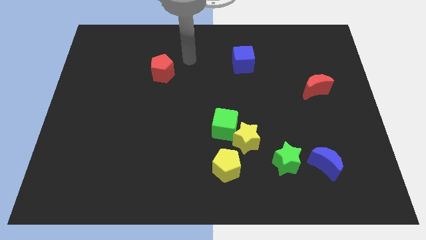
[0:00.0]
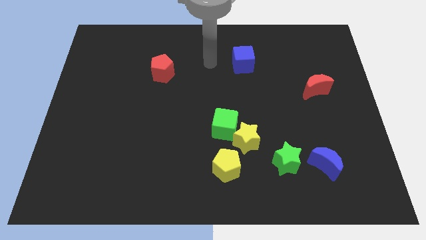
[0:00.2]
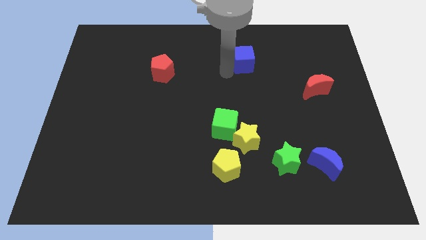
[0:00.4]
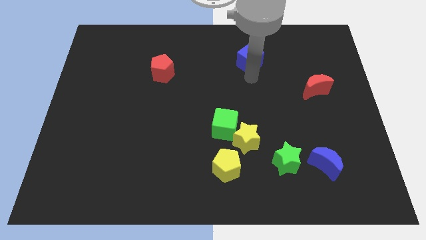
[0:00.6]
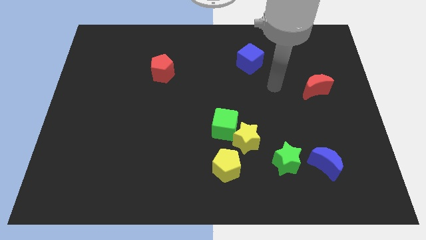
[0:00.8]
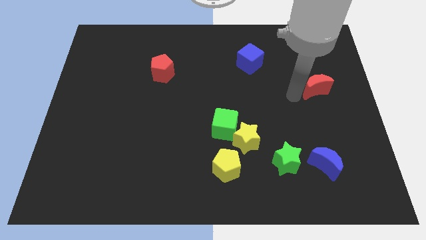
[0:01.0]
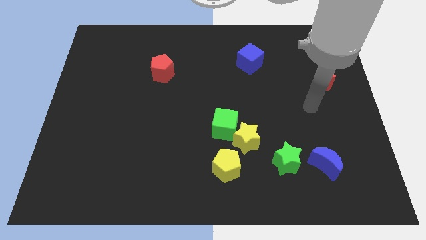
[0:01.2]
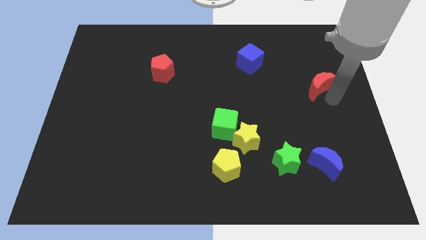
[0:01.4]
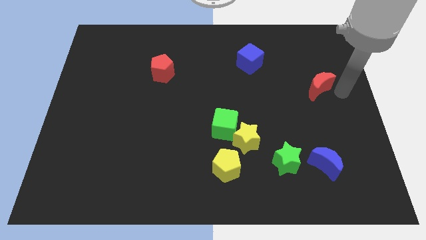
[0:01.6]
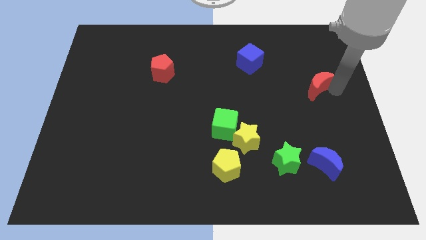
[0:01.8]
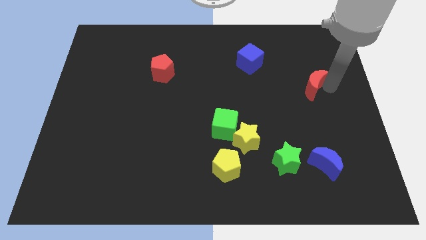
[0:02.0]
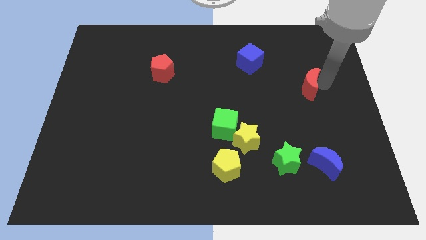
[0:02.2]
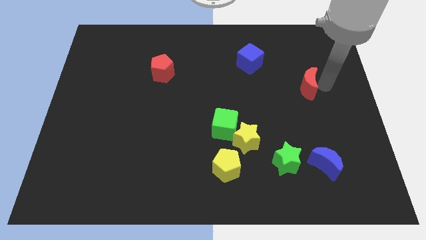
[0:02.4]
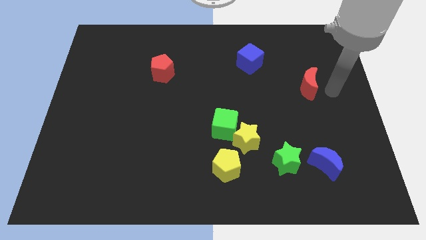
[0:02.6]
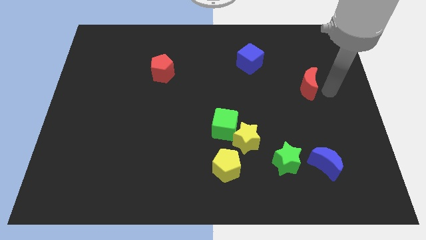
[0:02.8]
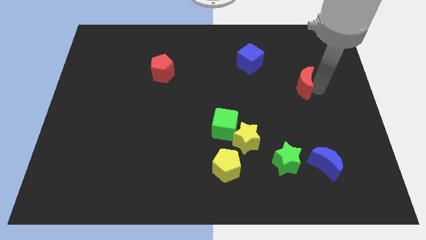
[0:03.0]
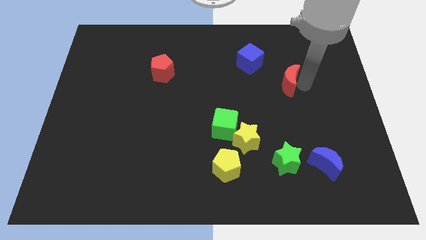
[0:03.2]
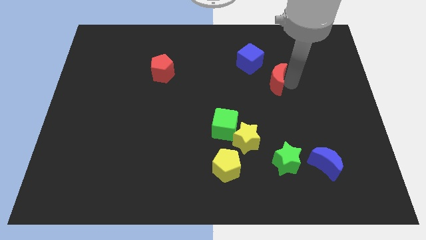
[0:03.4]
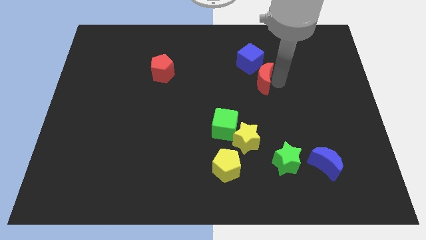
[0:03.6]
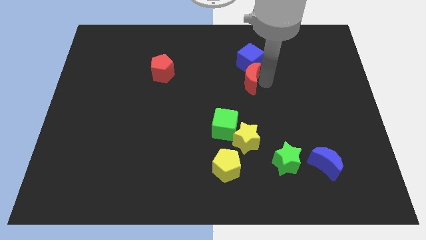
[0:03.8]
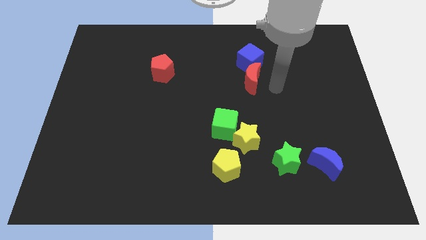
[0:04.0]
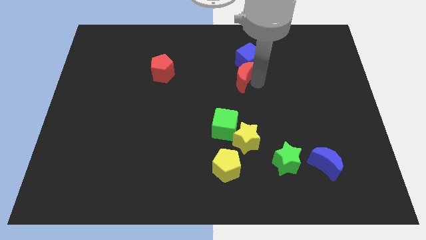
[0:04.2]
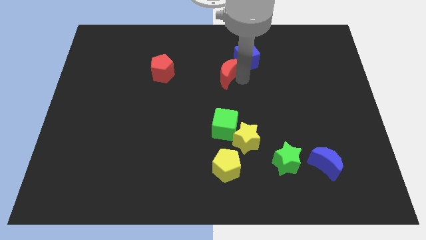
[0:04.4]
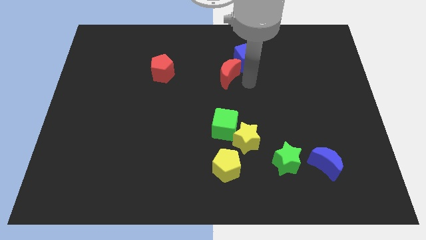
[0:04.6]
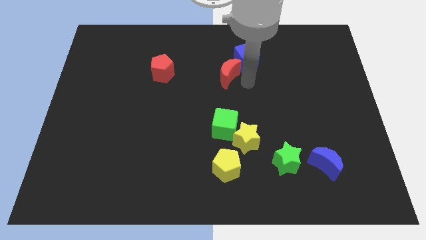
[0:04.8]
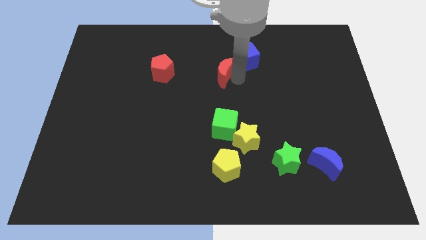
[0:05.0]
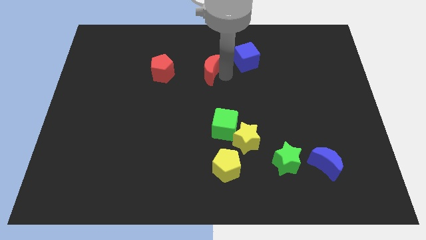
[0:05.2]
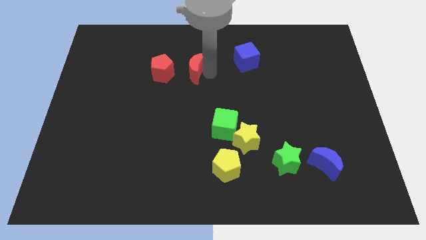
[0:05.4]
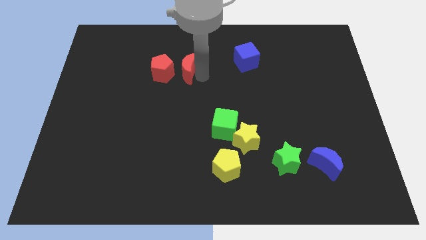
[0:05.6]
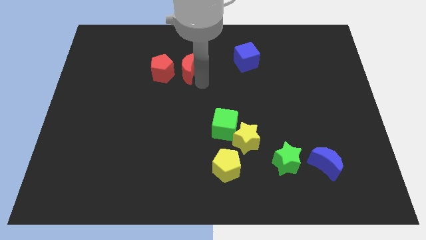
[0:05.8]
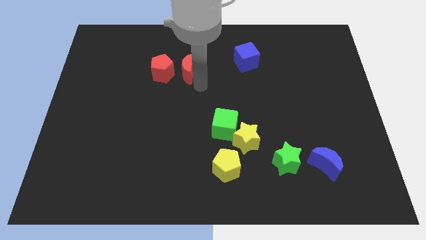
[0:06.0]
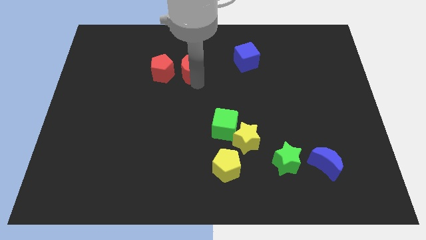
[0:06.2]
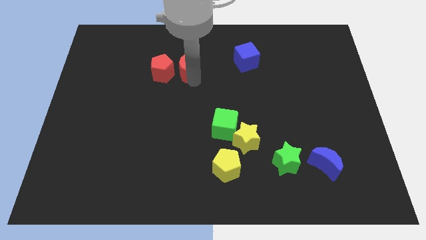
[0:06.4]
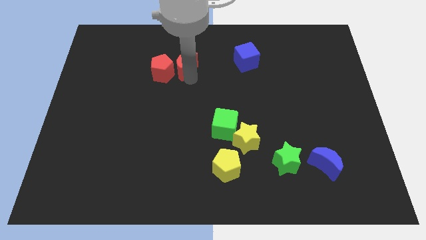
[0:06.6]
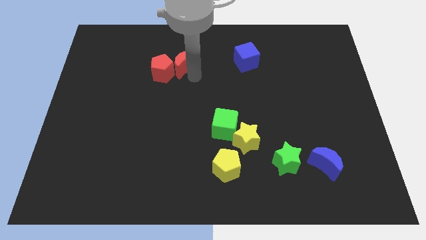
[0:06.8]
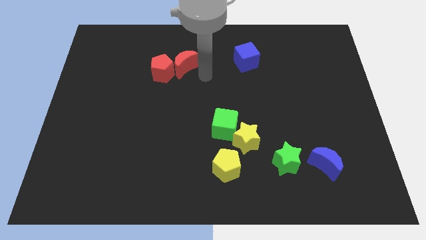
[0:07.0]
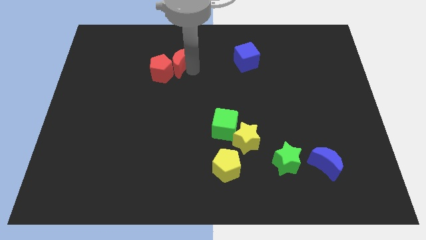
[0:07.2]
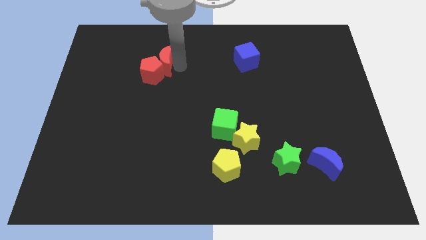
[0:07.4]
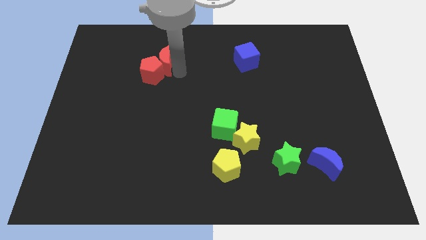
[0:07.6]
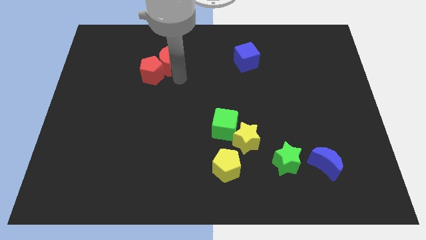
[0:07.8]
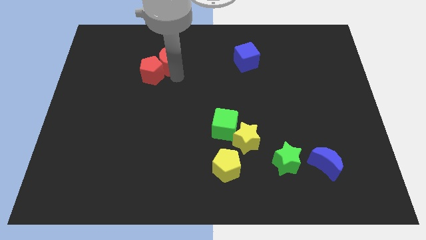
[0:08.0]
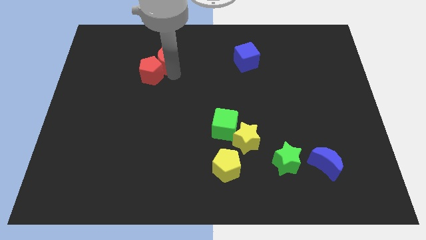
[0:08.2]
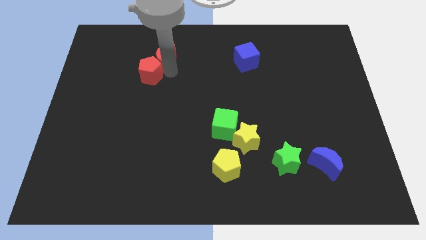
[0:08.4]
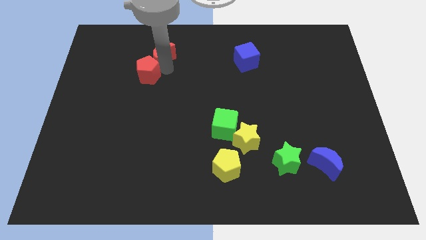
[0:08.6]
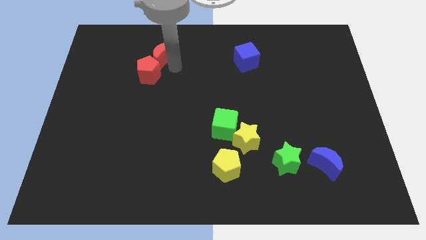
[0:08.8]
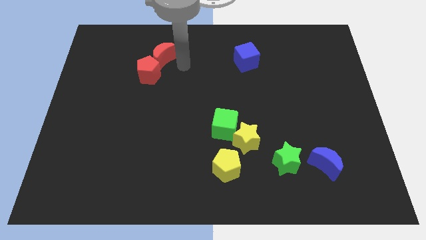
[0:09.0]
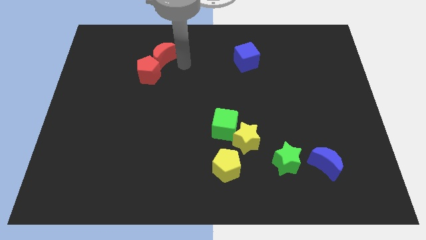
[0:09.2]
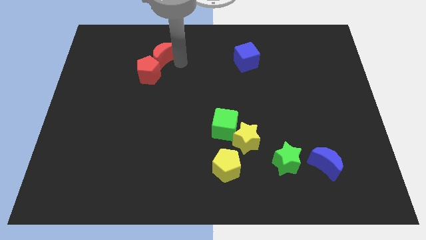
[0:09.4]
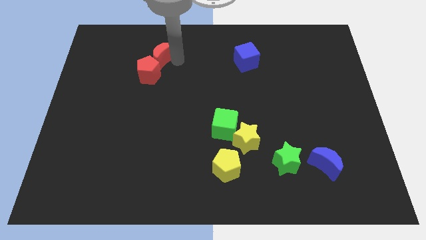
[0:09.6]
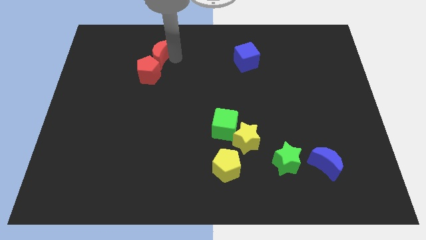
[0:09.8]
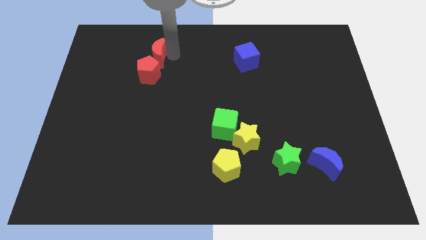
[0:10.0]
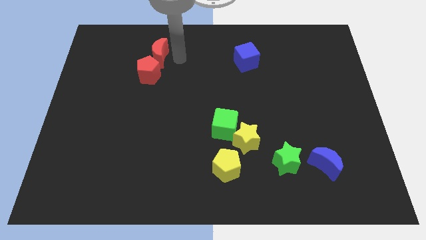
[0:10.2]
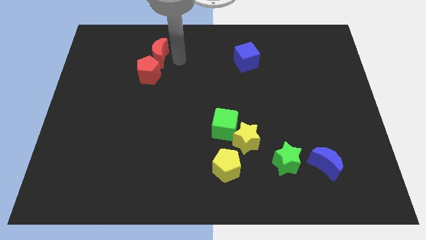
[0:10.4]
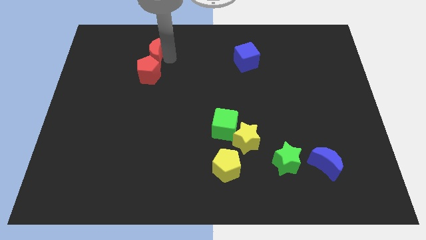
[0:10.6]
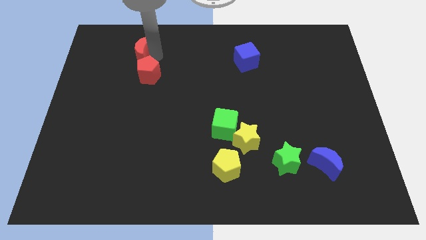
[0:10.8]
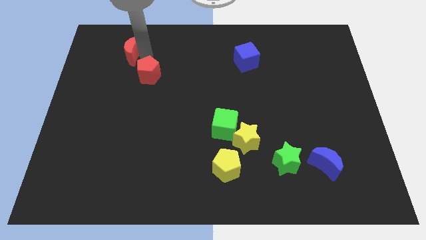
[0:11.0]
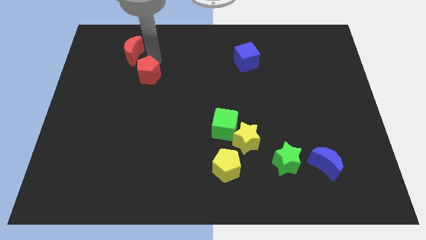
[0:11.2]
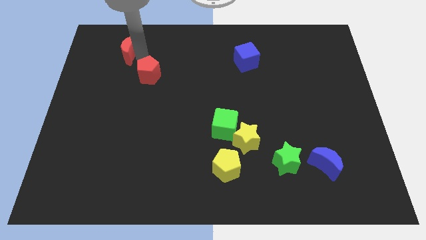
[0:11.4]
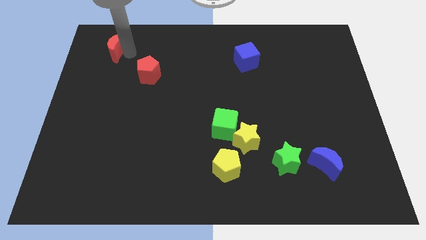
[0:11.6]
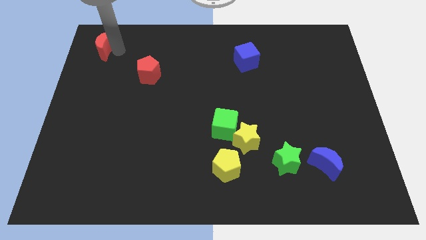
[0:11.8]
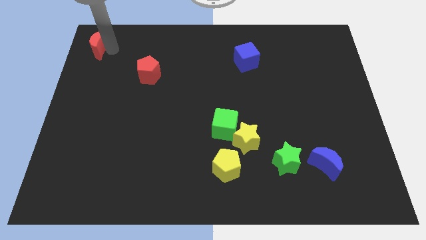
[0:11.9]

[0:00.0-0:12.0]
put the red moon to the top left
